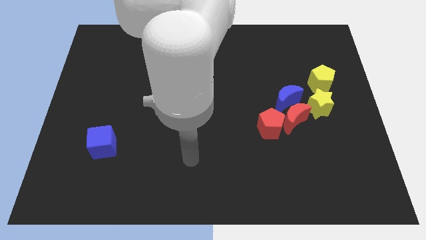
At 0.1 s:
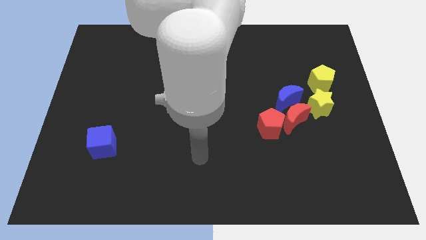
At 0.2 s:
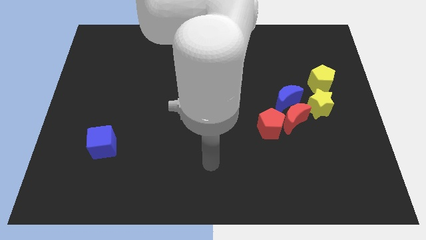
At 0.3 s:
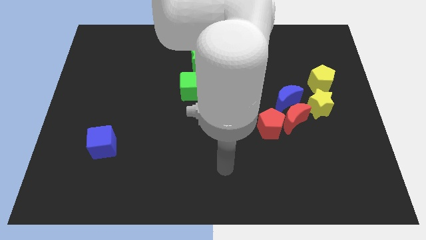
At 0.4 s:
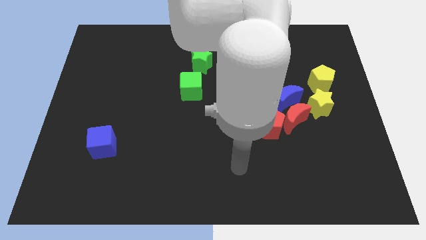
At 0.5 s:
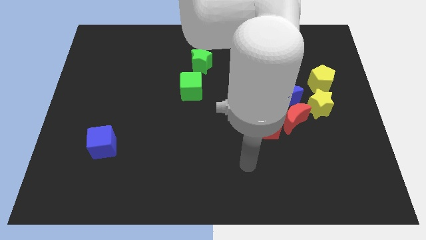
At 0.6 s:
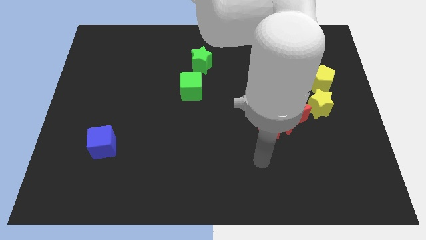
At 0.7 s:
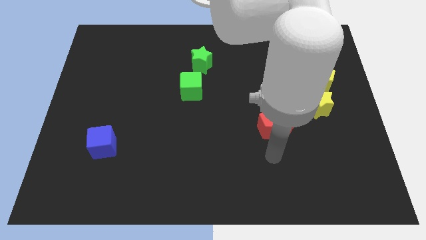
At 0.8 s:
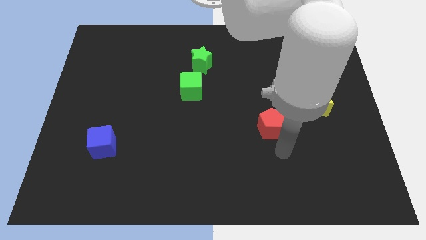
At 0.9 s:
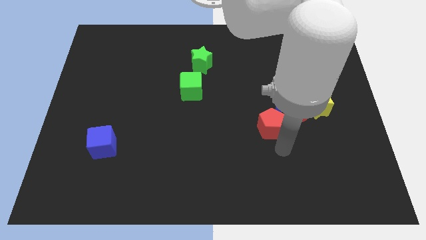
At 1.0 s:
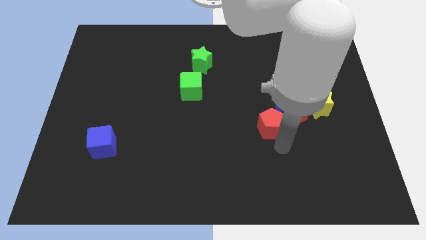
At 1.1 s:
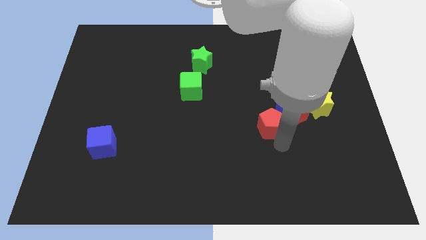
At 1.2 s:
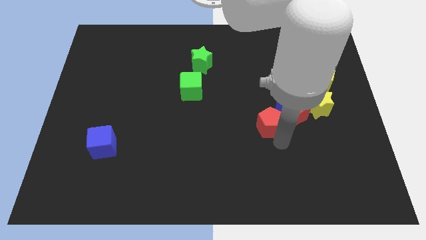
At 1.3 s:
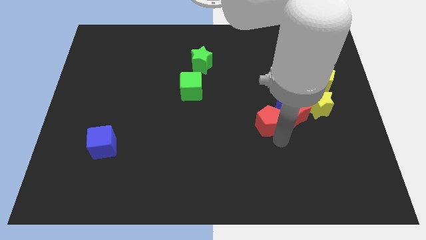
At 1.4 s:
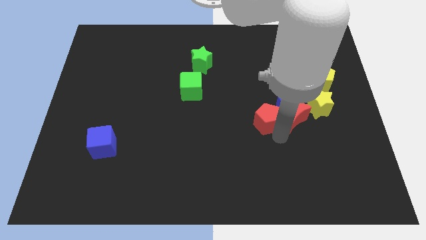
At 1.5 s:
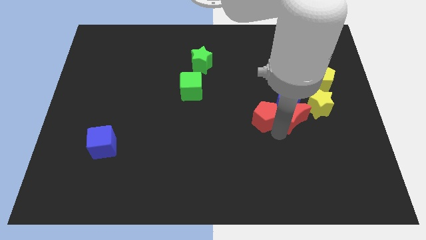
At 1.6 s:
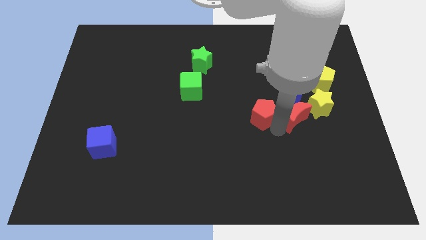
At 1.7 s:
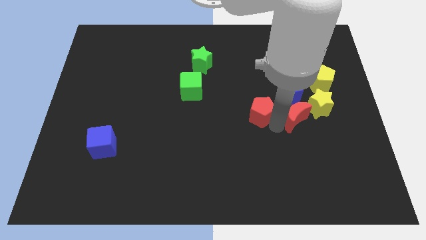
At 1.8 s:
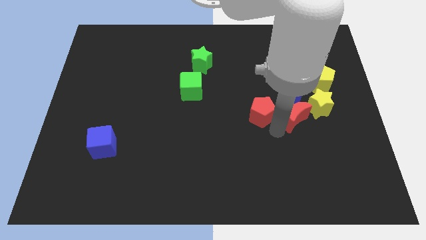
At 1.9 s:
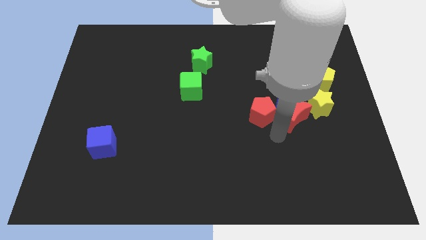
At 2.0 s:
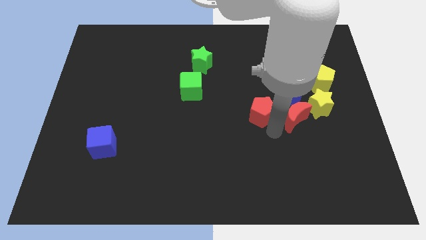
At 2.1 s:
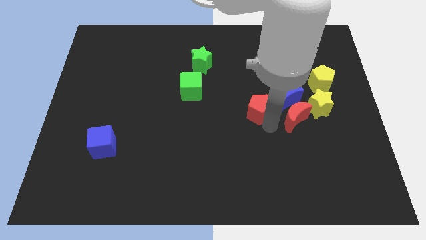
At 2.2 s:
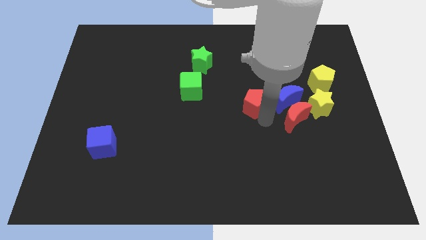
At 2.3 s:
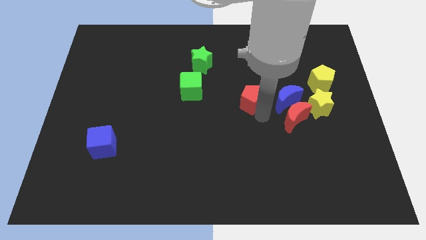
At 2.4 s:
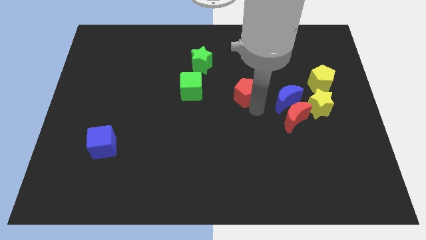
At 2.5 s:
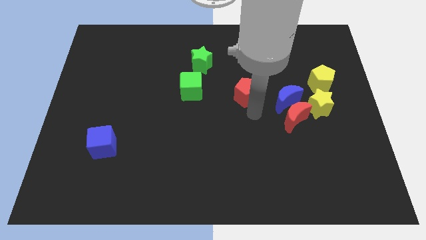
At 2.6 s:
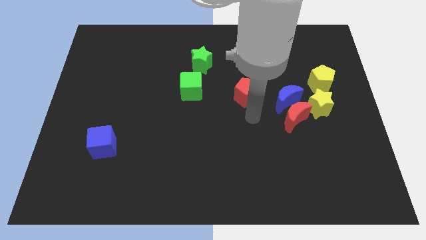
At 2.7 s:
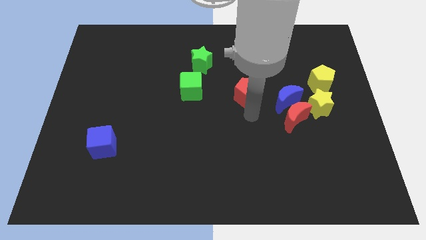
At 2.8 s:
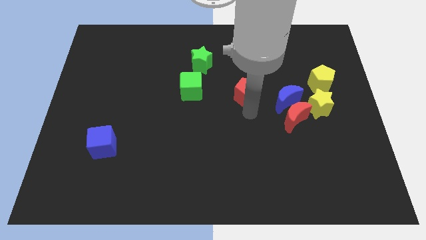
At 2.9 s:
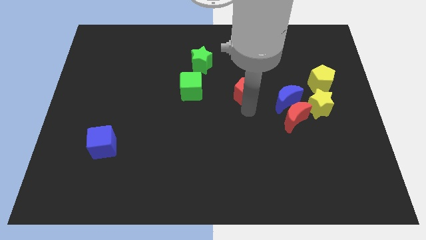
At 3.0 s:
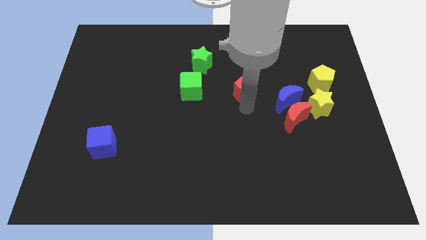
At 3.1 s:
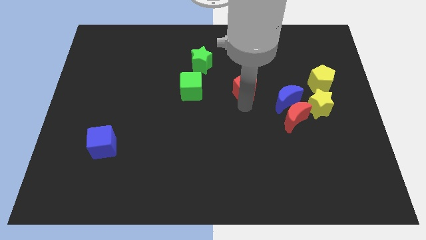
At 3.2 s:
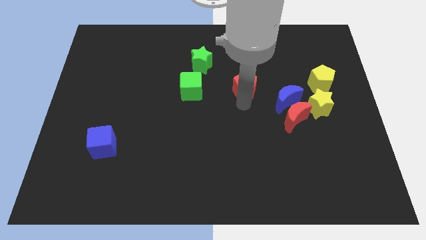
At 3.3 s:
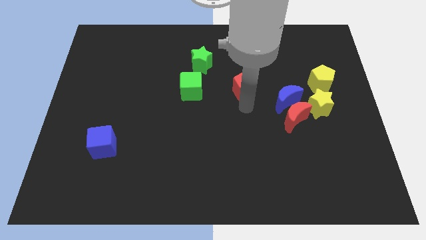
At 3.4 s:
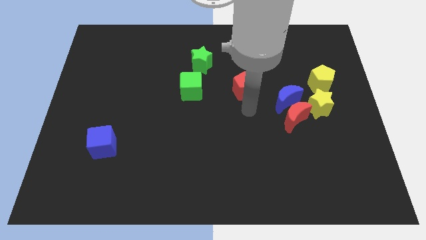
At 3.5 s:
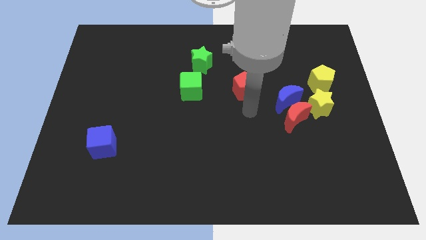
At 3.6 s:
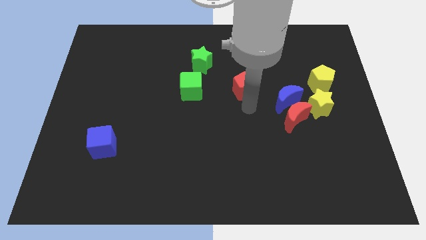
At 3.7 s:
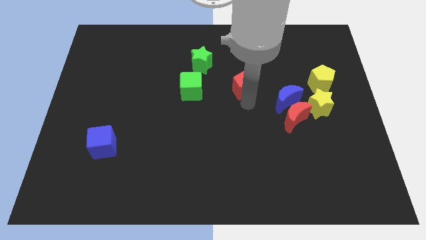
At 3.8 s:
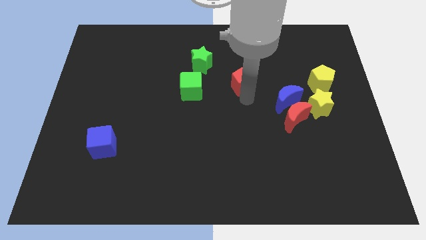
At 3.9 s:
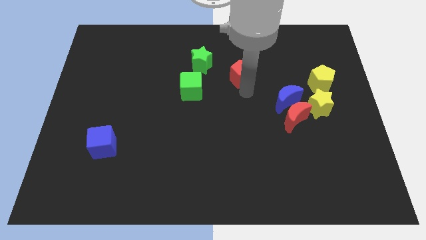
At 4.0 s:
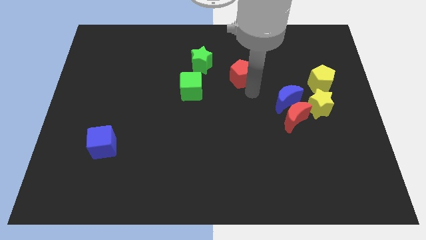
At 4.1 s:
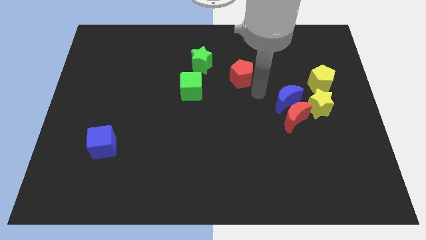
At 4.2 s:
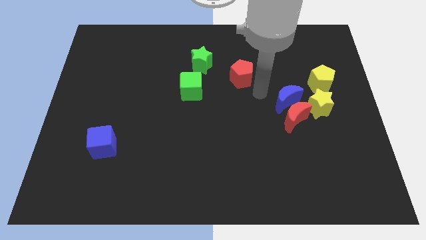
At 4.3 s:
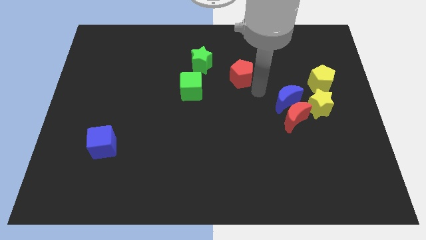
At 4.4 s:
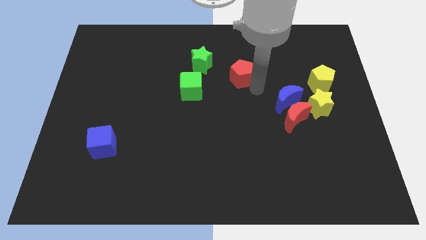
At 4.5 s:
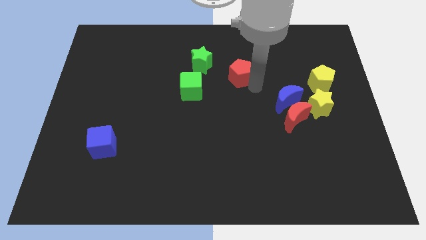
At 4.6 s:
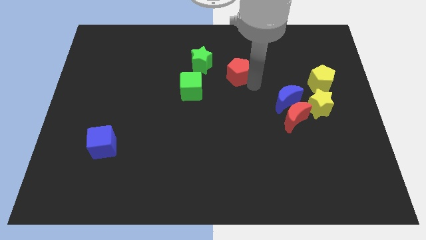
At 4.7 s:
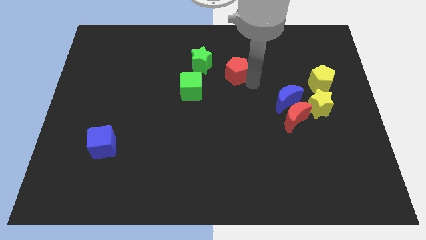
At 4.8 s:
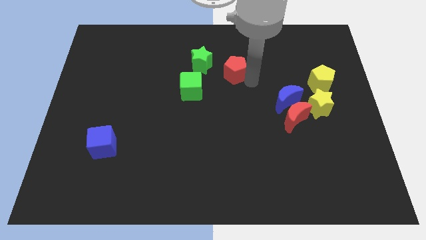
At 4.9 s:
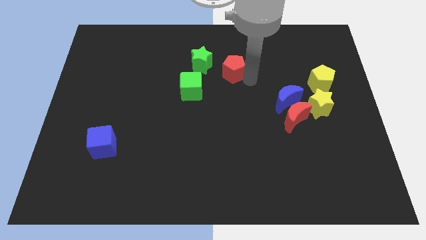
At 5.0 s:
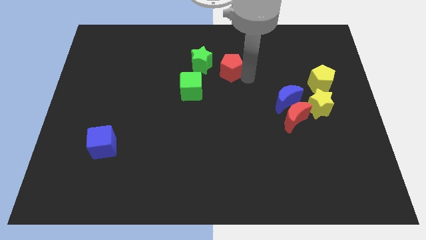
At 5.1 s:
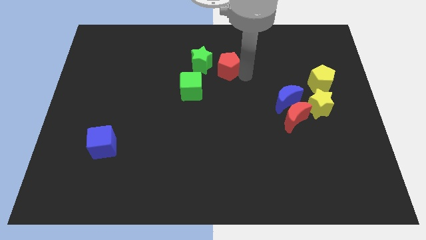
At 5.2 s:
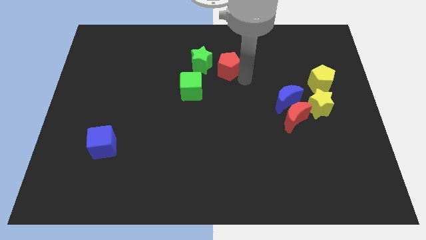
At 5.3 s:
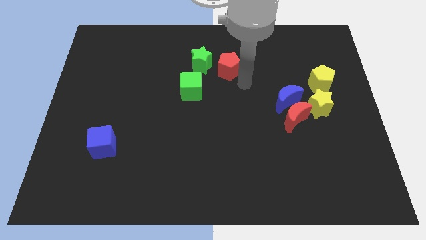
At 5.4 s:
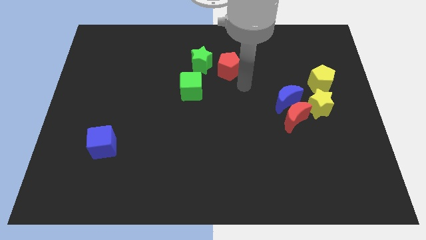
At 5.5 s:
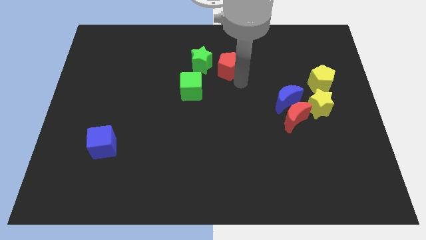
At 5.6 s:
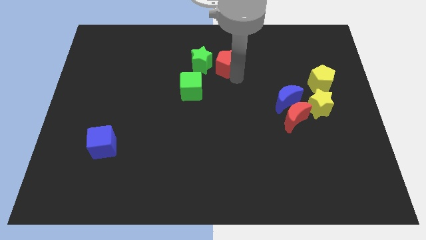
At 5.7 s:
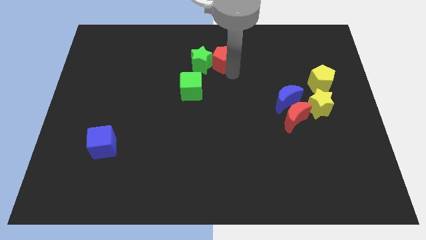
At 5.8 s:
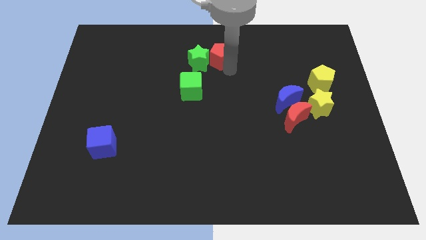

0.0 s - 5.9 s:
push the red pentagon up and then left

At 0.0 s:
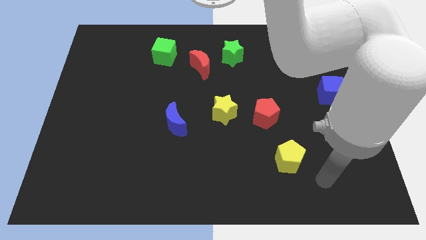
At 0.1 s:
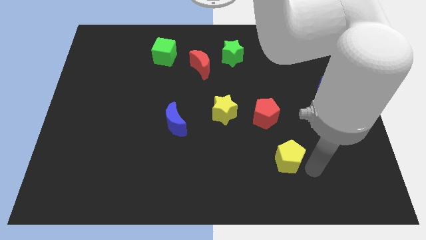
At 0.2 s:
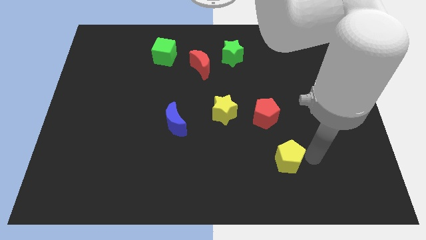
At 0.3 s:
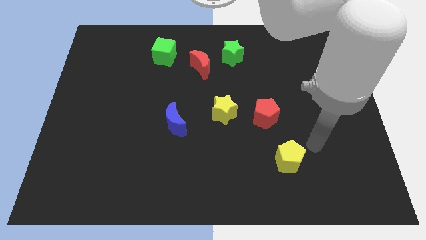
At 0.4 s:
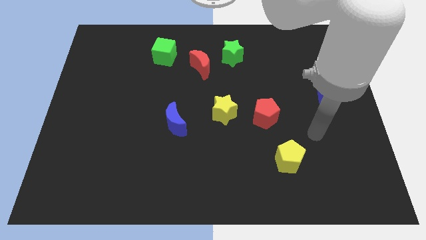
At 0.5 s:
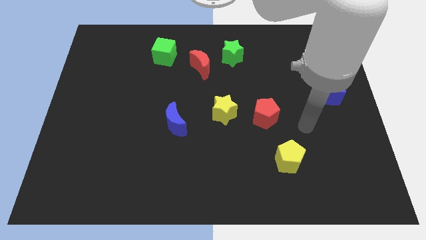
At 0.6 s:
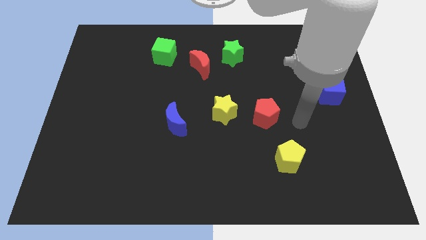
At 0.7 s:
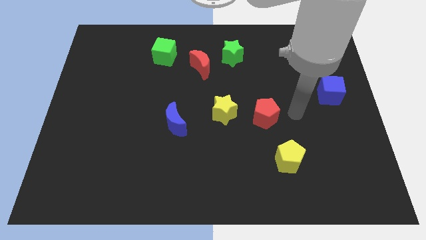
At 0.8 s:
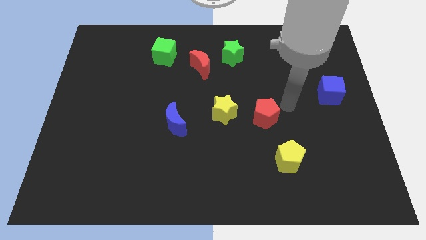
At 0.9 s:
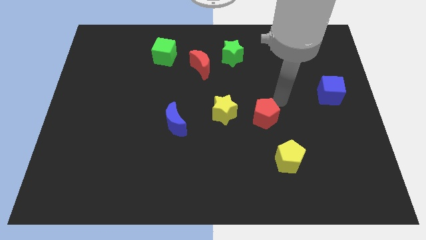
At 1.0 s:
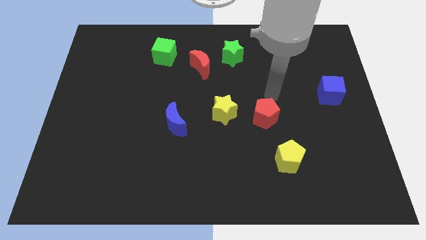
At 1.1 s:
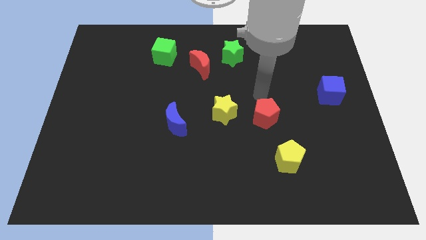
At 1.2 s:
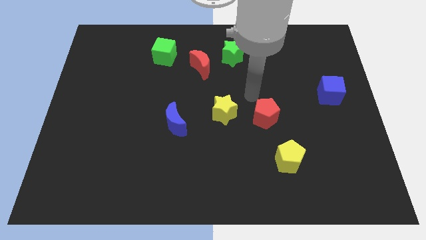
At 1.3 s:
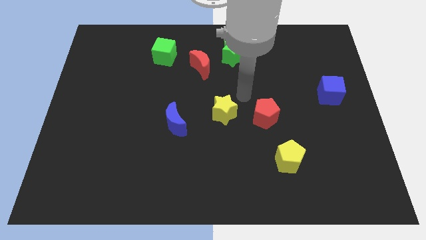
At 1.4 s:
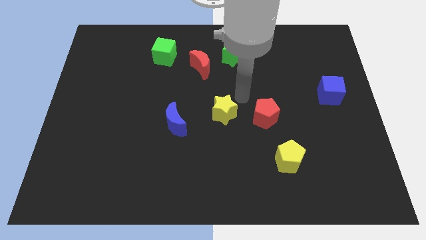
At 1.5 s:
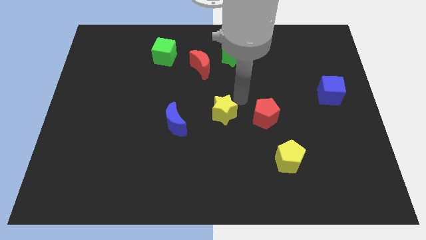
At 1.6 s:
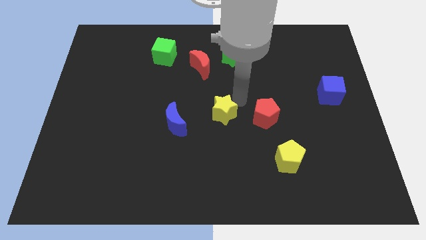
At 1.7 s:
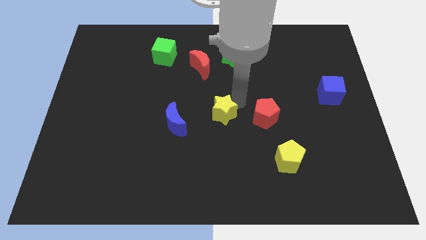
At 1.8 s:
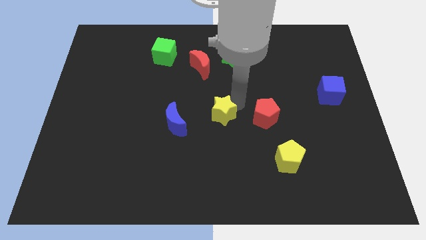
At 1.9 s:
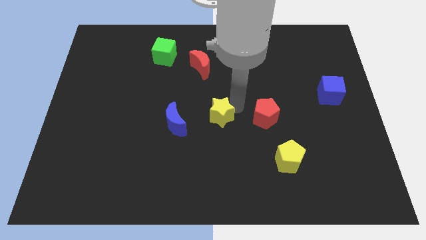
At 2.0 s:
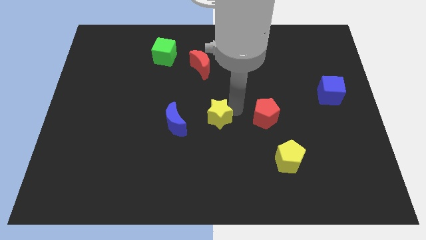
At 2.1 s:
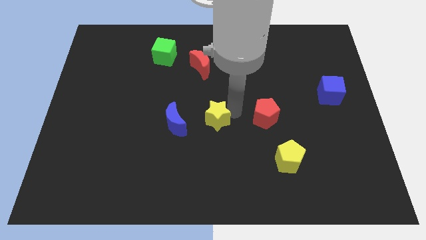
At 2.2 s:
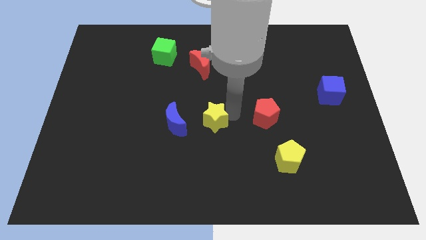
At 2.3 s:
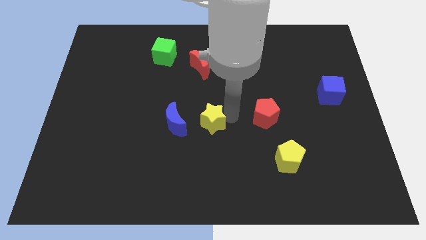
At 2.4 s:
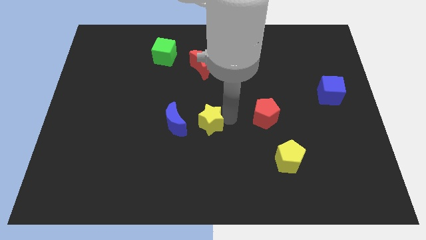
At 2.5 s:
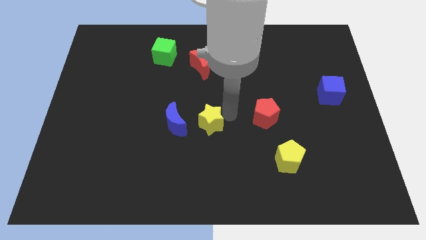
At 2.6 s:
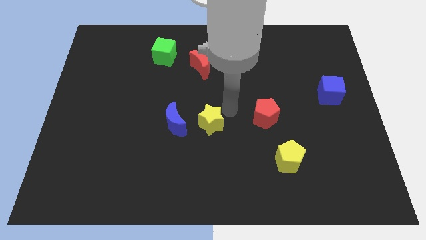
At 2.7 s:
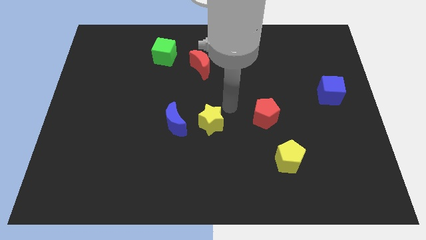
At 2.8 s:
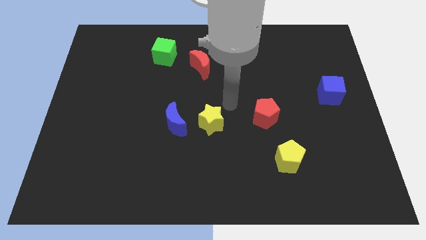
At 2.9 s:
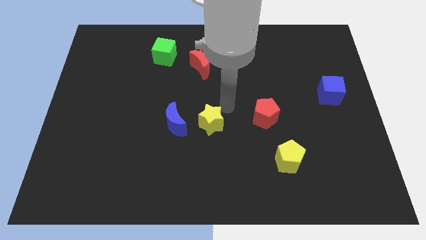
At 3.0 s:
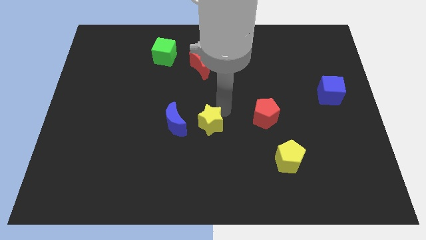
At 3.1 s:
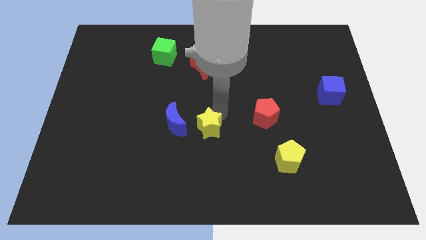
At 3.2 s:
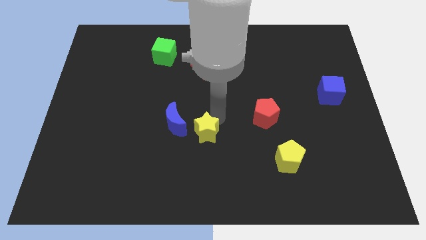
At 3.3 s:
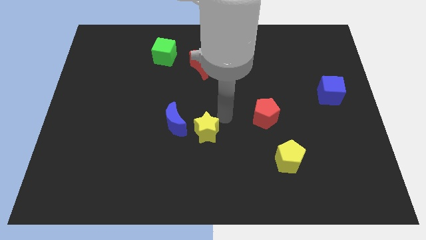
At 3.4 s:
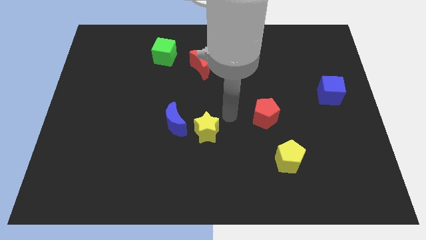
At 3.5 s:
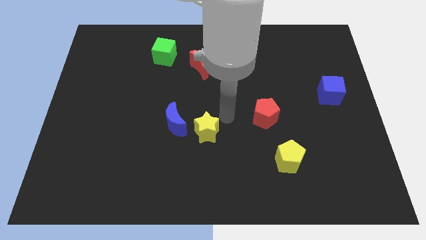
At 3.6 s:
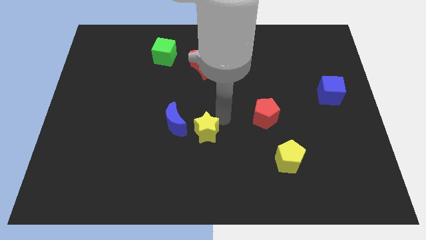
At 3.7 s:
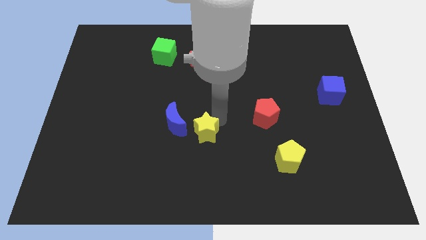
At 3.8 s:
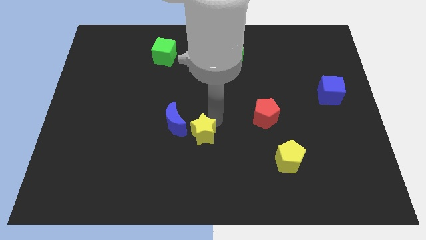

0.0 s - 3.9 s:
slide the yellow star a little down and left diagonally
